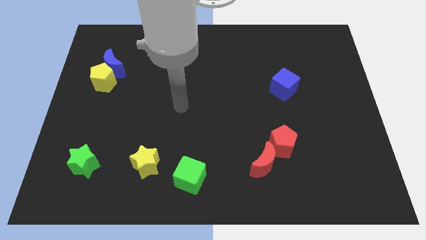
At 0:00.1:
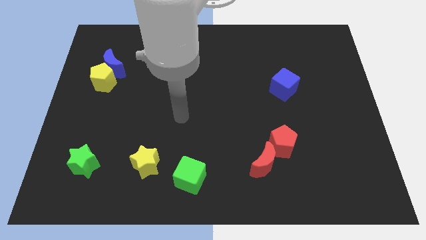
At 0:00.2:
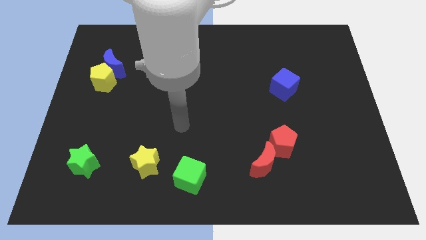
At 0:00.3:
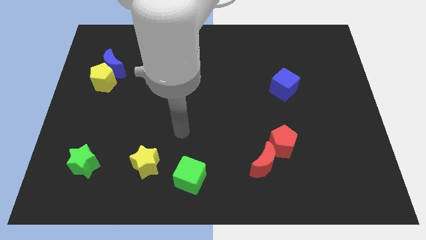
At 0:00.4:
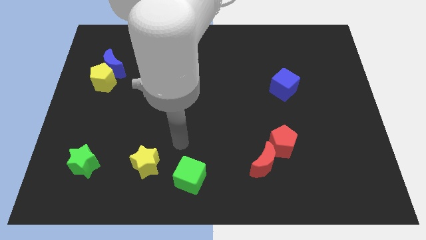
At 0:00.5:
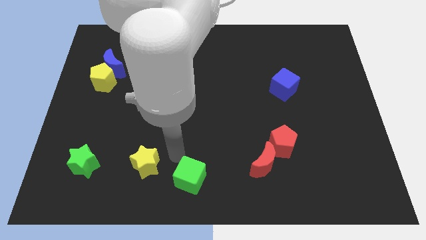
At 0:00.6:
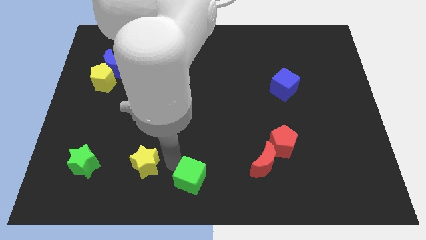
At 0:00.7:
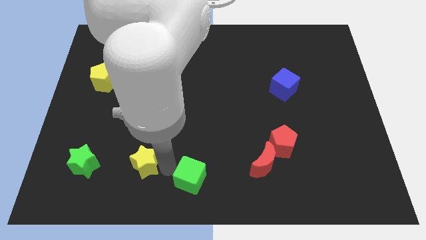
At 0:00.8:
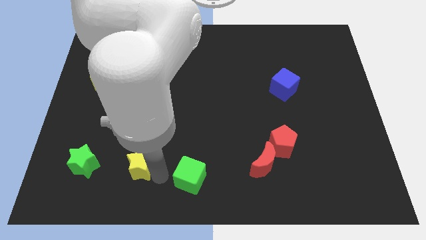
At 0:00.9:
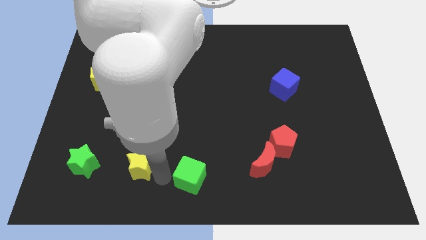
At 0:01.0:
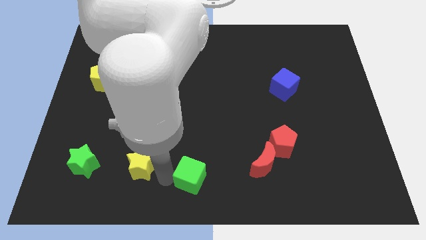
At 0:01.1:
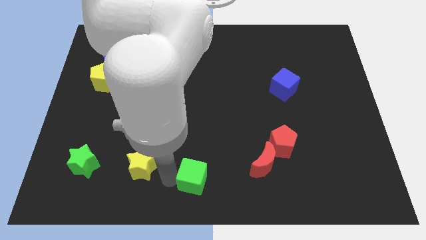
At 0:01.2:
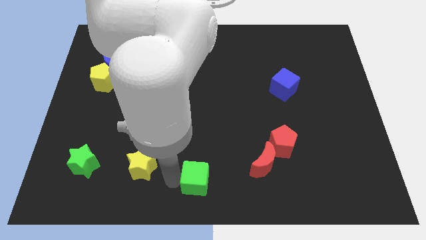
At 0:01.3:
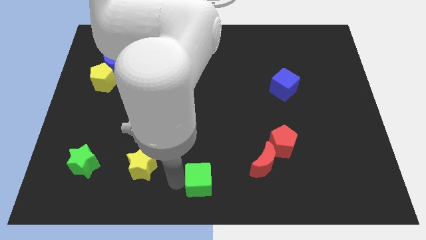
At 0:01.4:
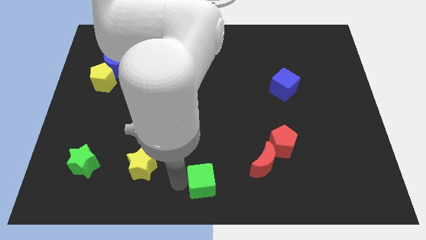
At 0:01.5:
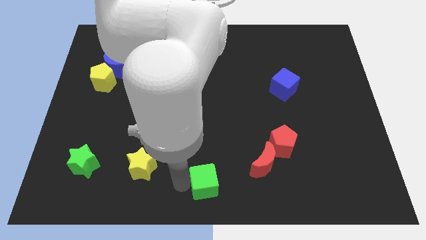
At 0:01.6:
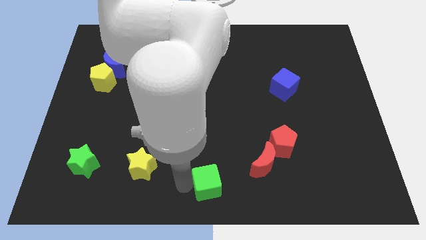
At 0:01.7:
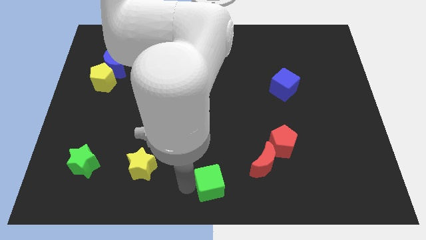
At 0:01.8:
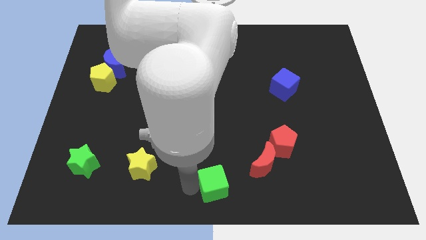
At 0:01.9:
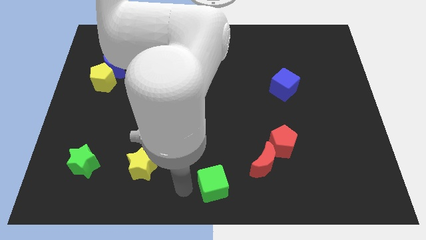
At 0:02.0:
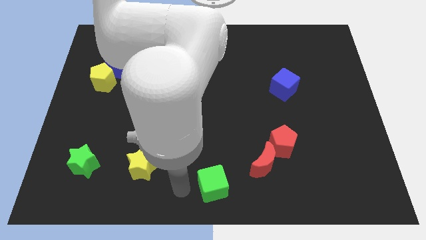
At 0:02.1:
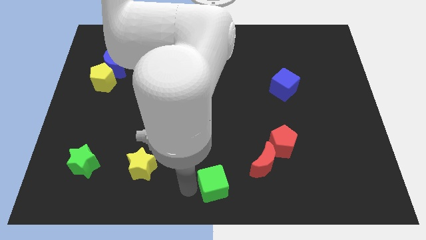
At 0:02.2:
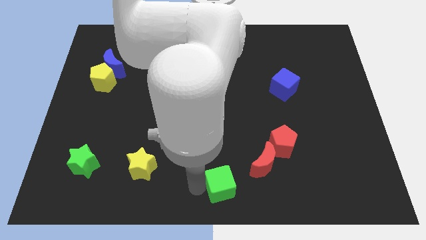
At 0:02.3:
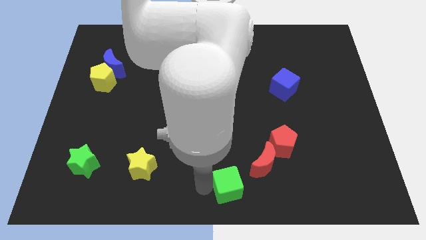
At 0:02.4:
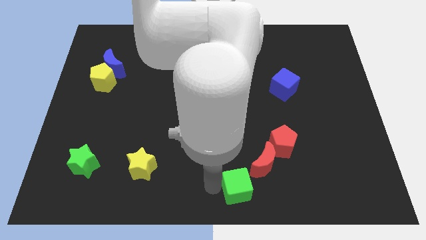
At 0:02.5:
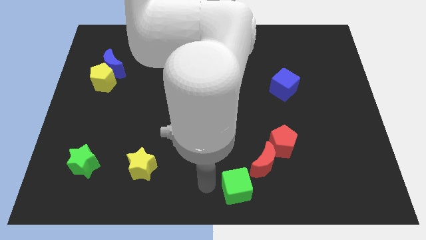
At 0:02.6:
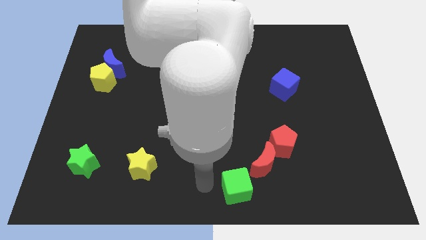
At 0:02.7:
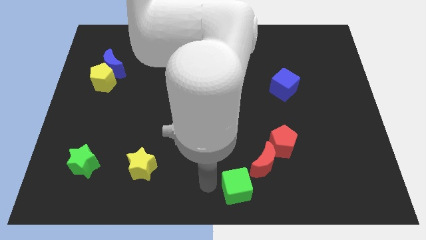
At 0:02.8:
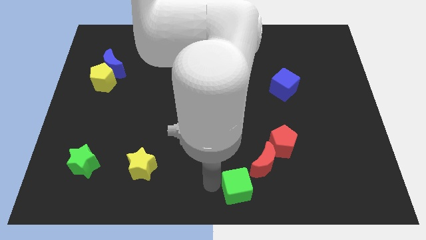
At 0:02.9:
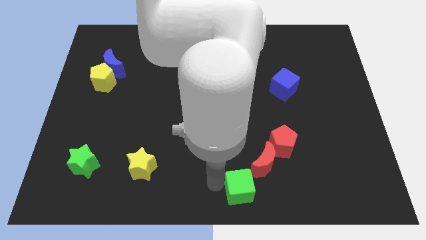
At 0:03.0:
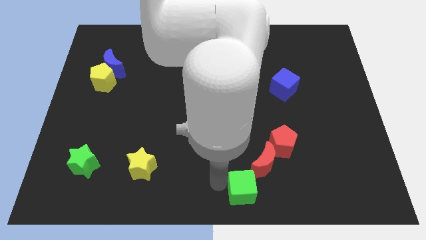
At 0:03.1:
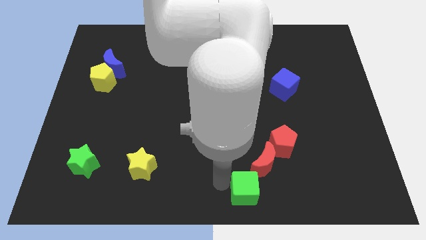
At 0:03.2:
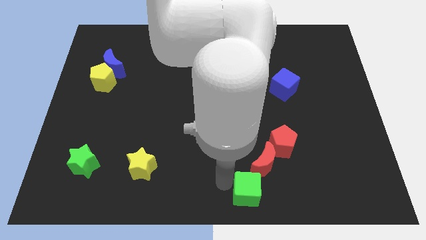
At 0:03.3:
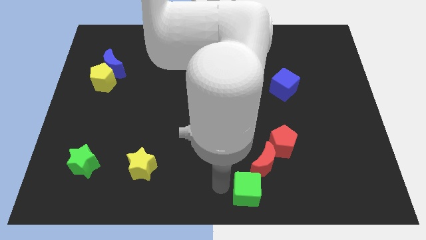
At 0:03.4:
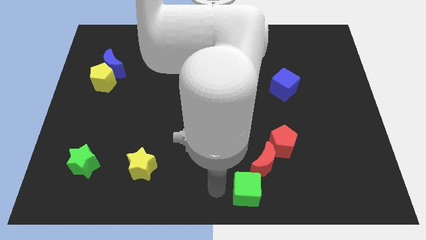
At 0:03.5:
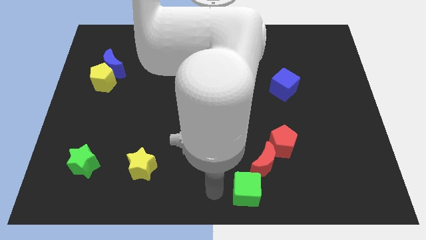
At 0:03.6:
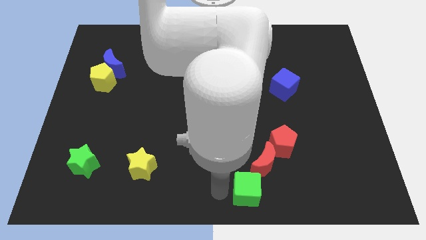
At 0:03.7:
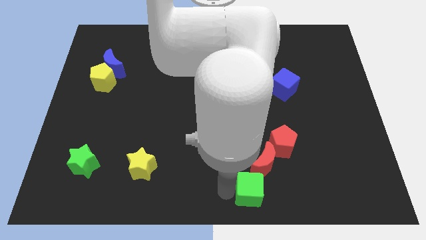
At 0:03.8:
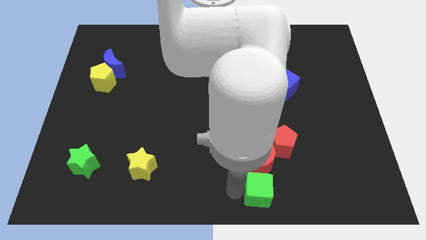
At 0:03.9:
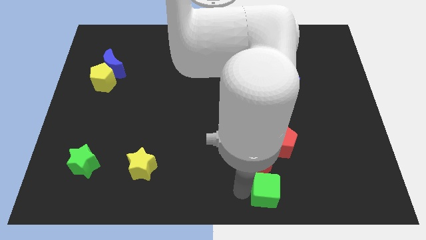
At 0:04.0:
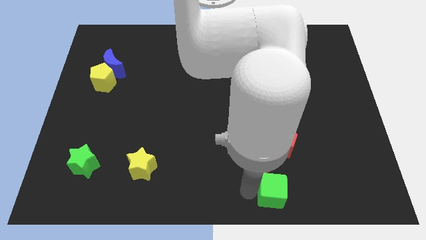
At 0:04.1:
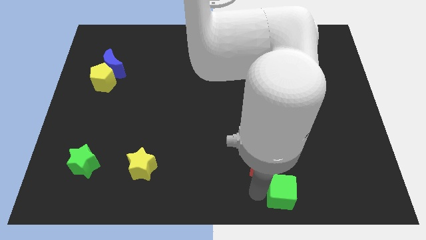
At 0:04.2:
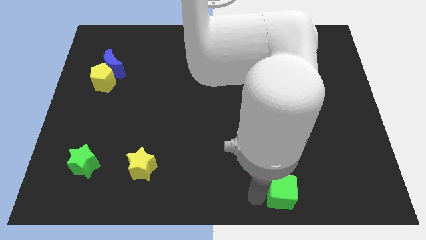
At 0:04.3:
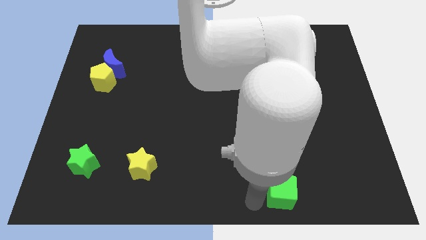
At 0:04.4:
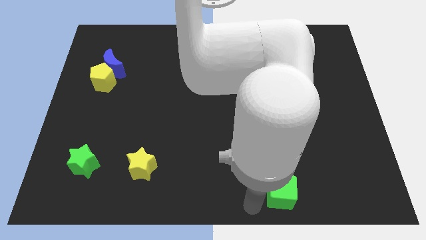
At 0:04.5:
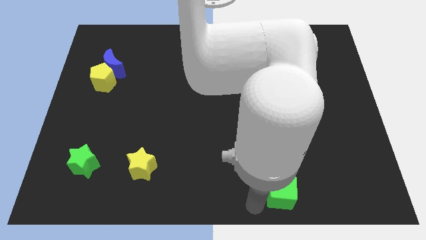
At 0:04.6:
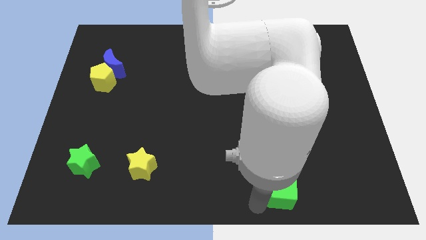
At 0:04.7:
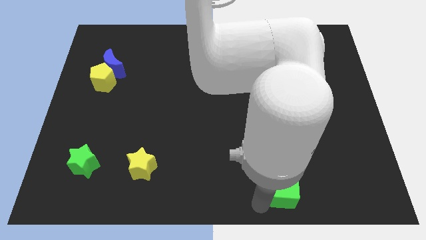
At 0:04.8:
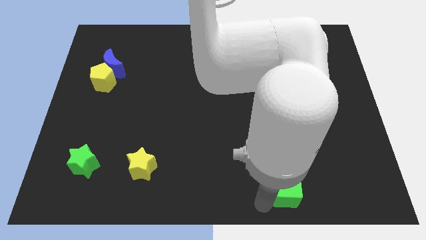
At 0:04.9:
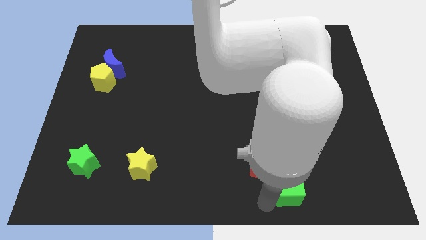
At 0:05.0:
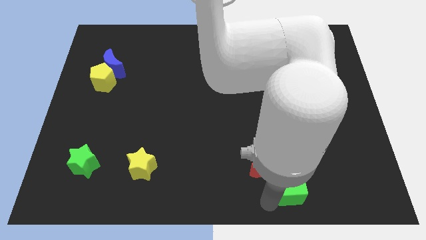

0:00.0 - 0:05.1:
move the green cube to the right

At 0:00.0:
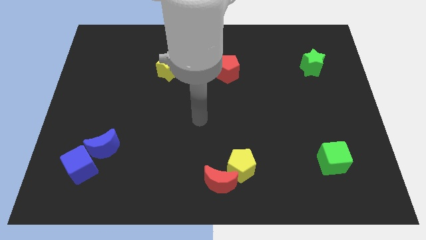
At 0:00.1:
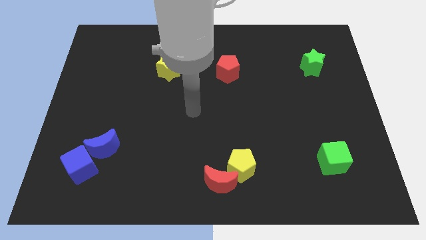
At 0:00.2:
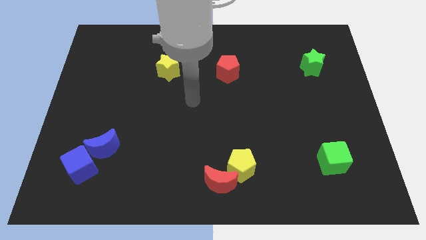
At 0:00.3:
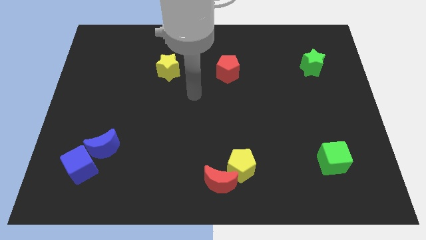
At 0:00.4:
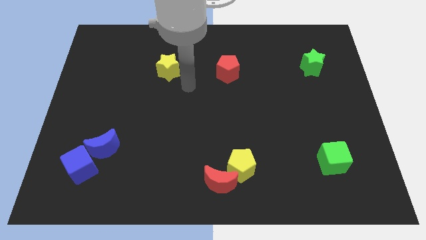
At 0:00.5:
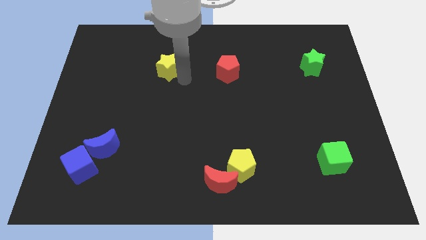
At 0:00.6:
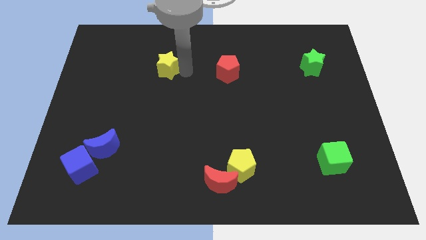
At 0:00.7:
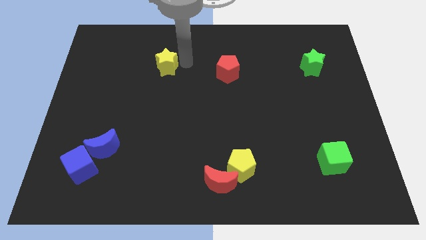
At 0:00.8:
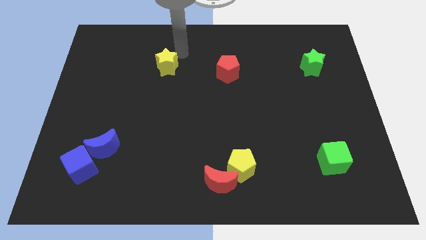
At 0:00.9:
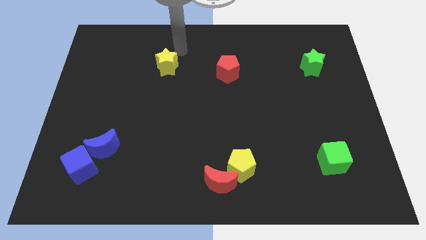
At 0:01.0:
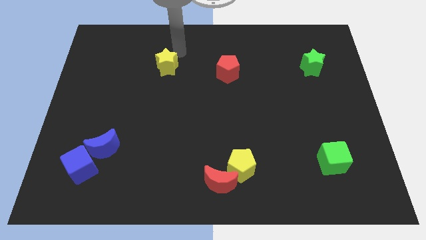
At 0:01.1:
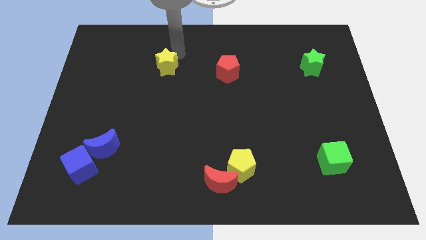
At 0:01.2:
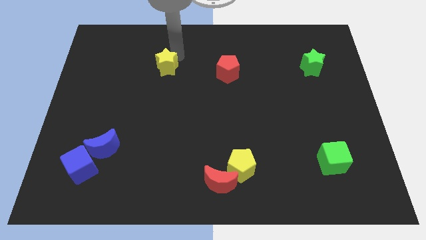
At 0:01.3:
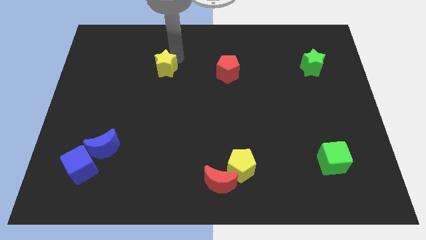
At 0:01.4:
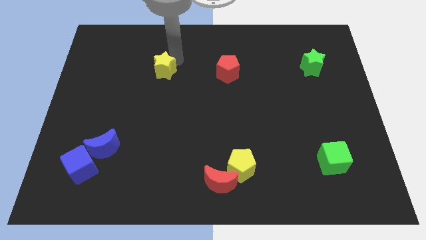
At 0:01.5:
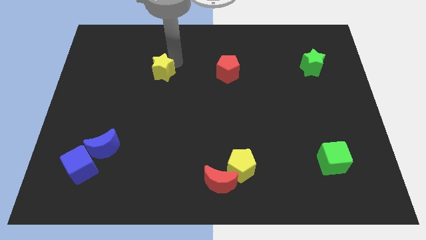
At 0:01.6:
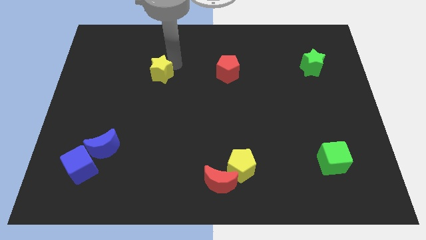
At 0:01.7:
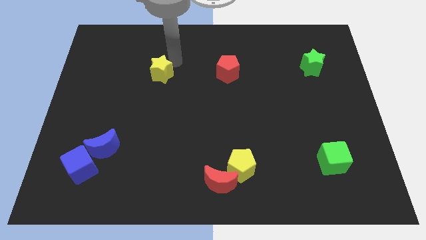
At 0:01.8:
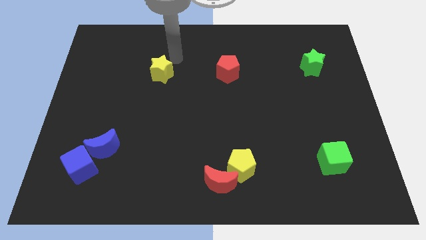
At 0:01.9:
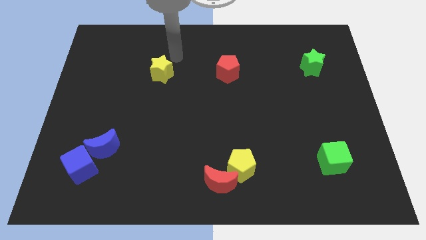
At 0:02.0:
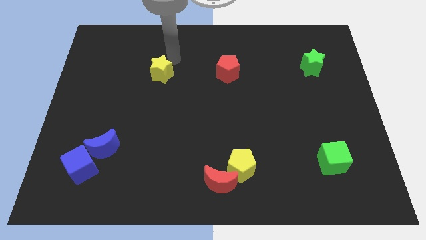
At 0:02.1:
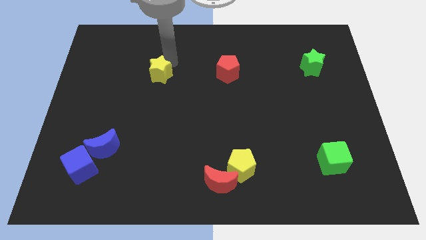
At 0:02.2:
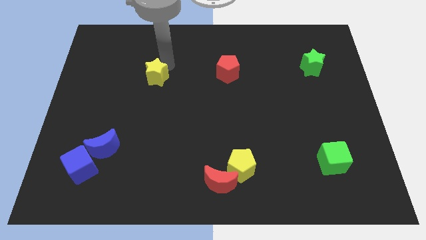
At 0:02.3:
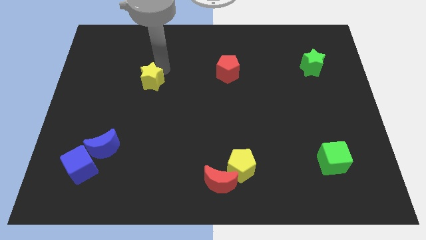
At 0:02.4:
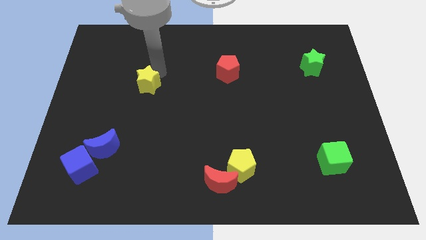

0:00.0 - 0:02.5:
slide the yellow star down and then to the left slightly

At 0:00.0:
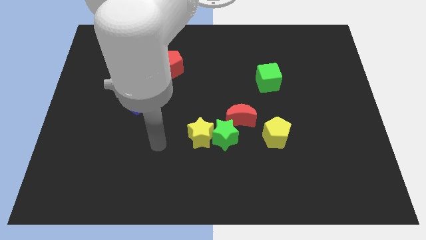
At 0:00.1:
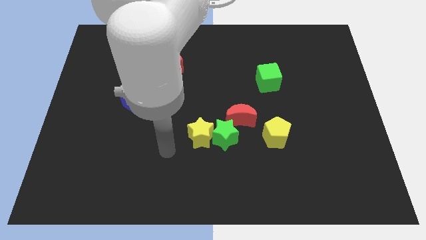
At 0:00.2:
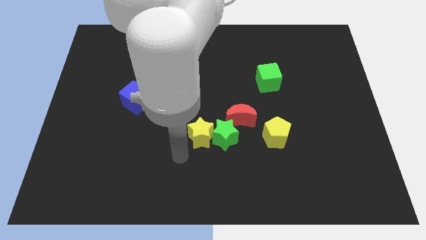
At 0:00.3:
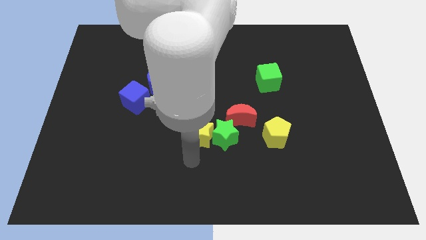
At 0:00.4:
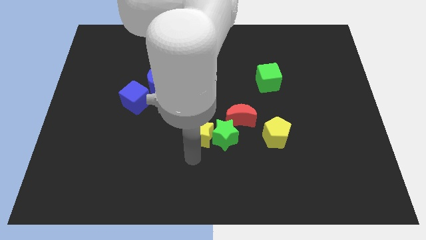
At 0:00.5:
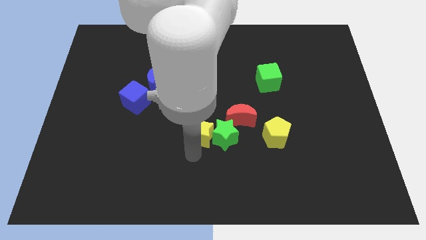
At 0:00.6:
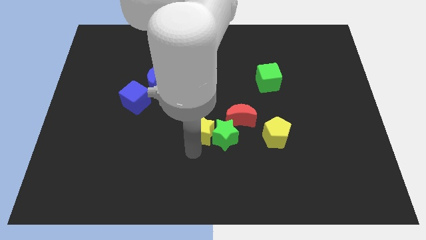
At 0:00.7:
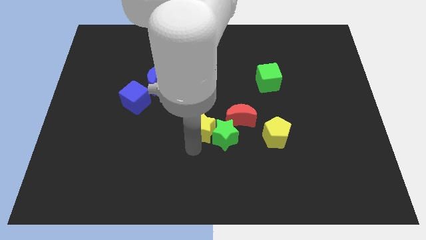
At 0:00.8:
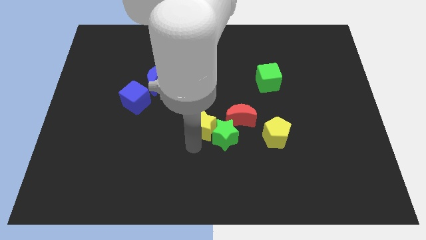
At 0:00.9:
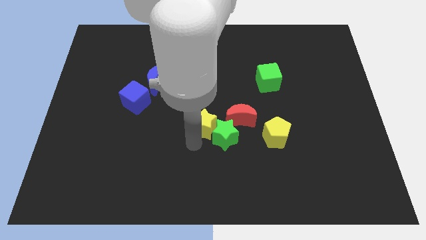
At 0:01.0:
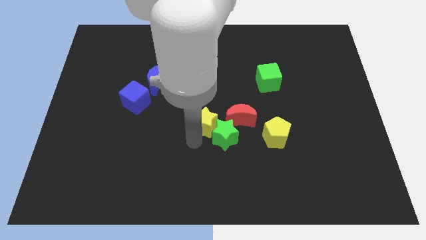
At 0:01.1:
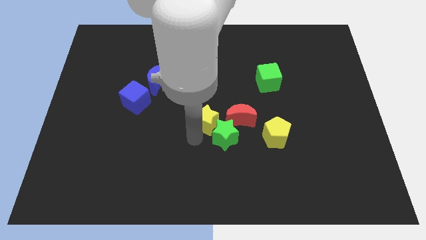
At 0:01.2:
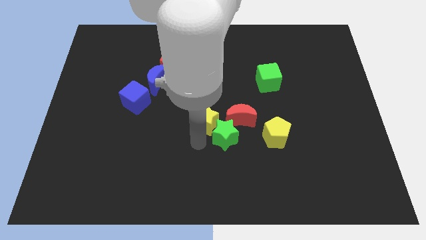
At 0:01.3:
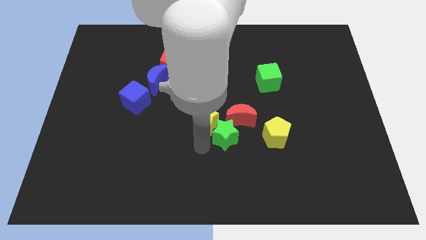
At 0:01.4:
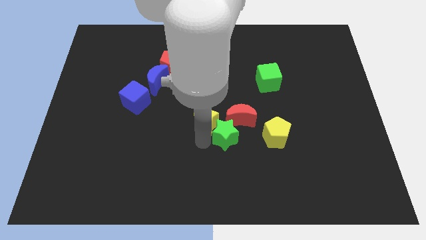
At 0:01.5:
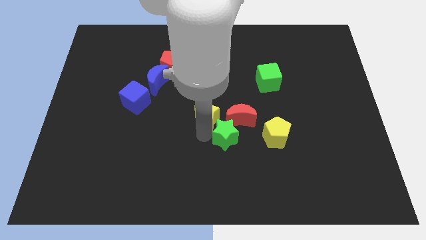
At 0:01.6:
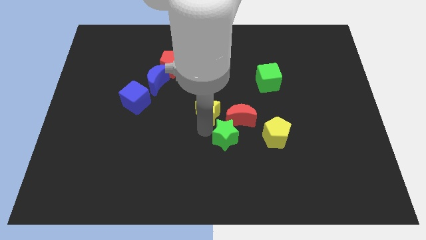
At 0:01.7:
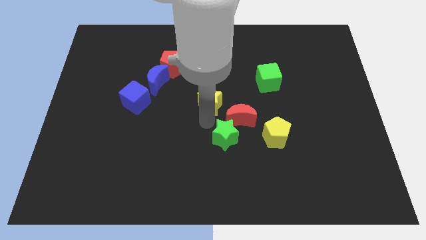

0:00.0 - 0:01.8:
slide the yellow star upwards somewhat
